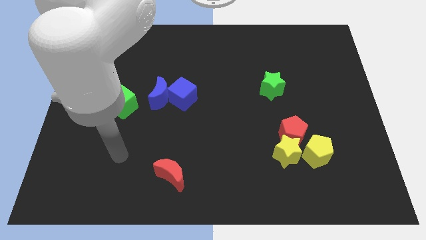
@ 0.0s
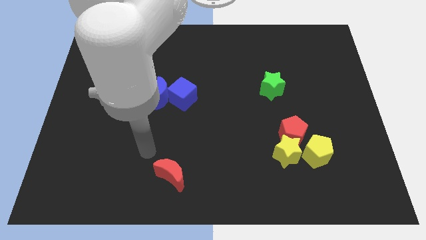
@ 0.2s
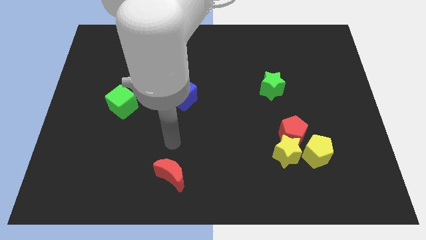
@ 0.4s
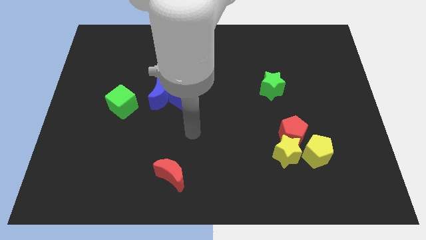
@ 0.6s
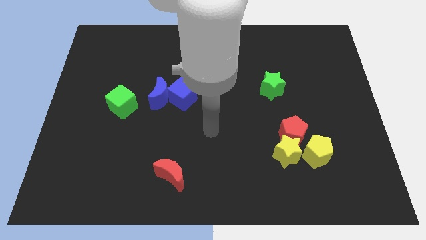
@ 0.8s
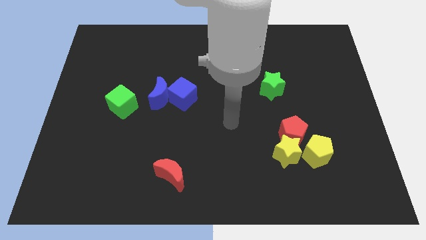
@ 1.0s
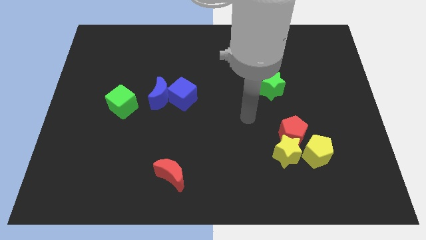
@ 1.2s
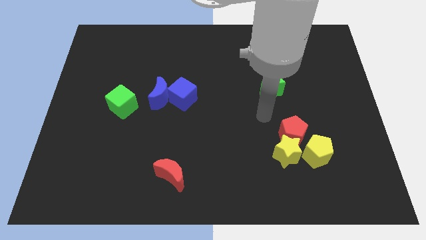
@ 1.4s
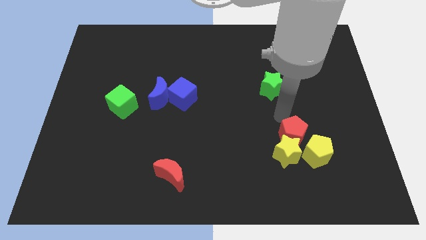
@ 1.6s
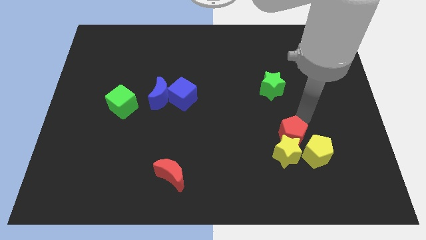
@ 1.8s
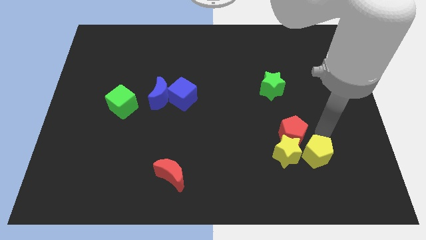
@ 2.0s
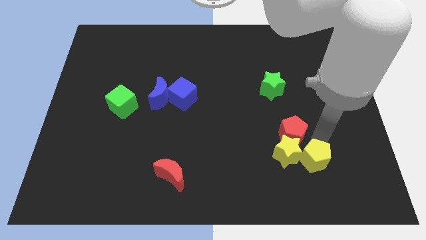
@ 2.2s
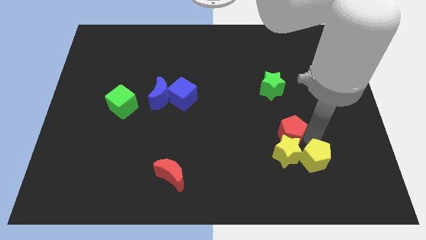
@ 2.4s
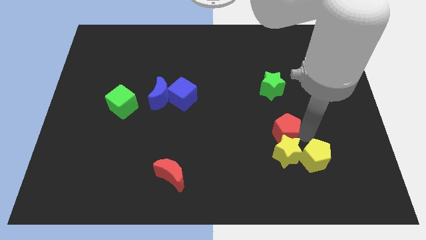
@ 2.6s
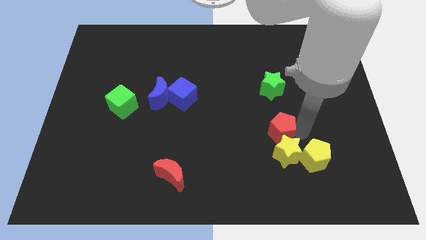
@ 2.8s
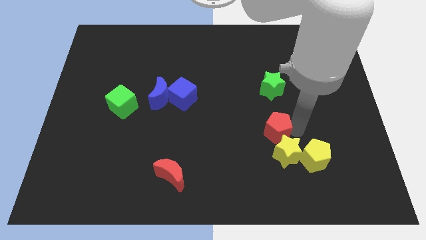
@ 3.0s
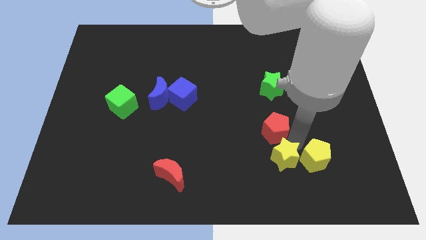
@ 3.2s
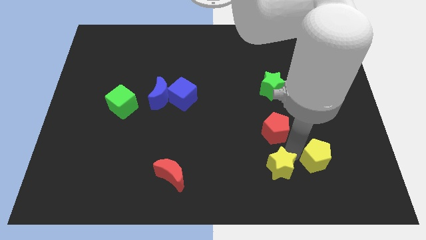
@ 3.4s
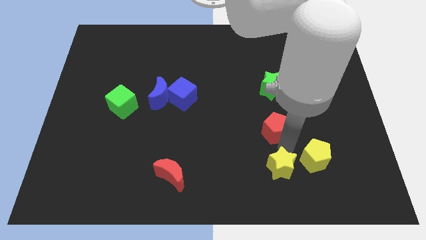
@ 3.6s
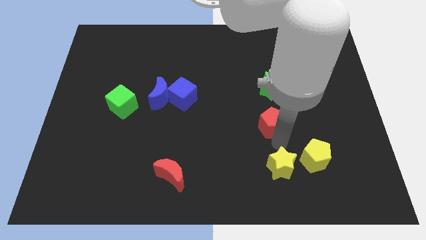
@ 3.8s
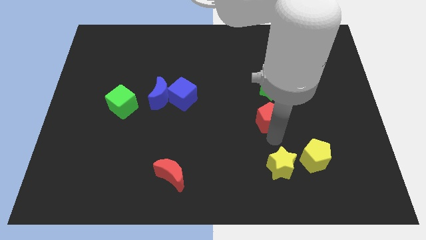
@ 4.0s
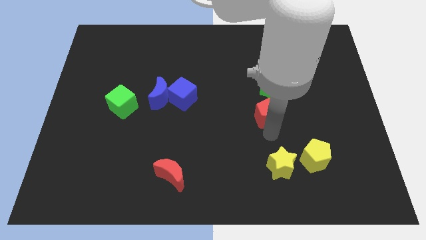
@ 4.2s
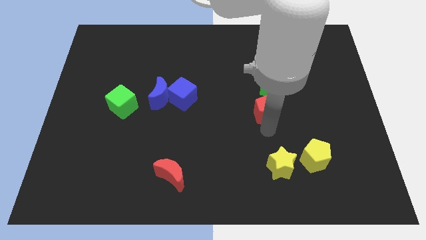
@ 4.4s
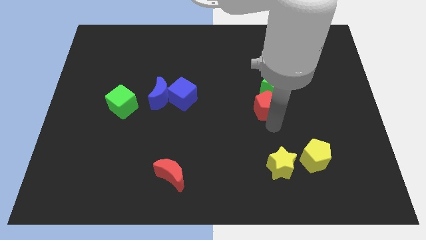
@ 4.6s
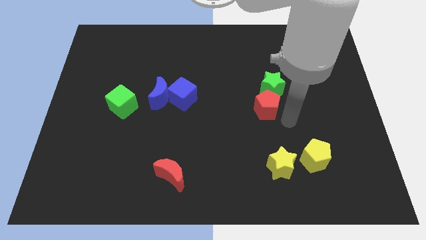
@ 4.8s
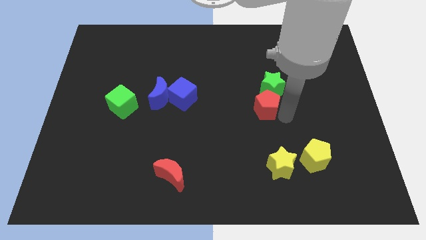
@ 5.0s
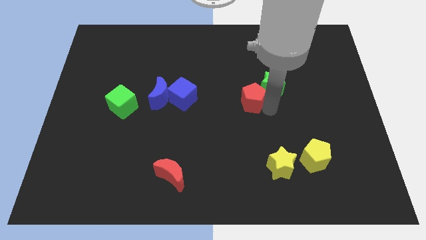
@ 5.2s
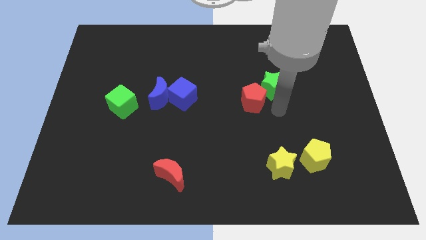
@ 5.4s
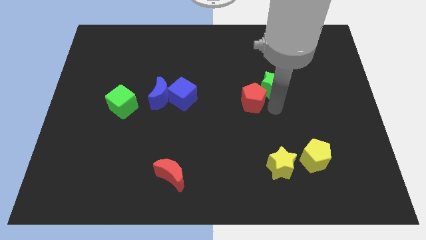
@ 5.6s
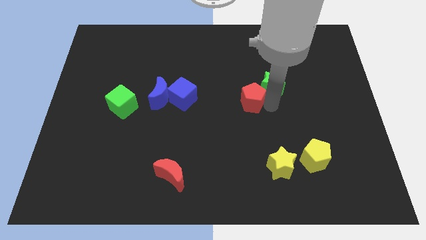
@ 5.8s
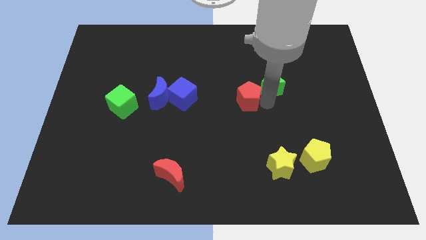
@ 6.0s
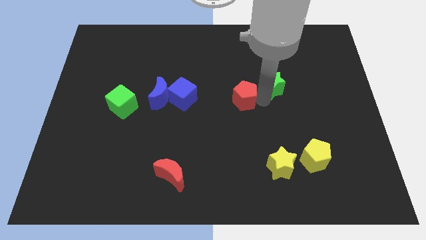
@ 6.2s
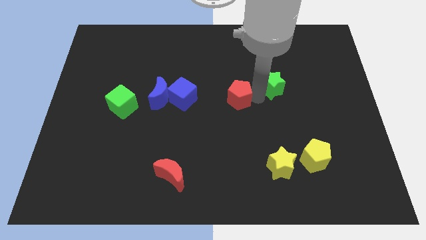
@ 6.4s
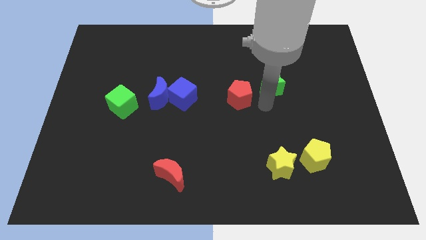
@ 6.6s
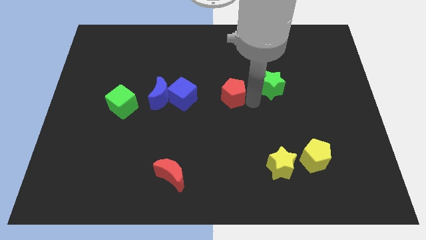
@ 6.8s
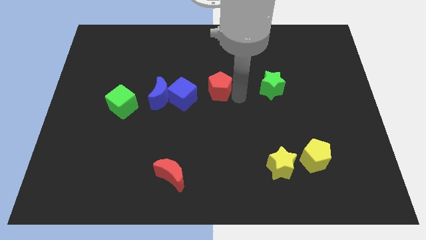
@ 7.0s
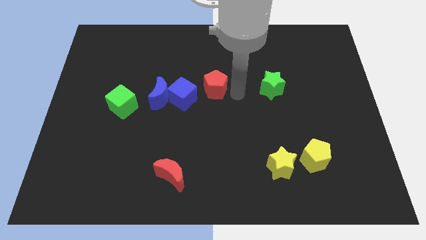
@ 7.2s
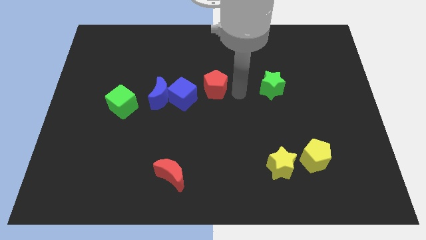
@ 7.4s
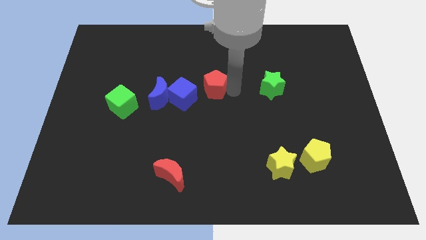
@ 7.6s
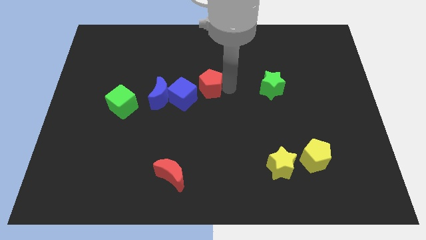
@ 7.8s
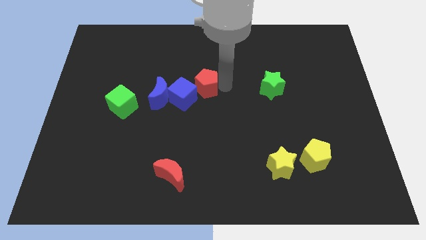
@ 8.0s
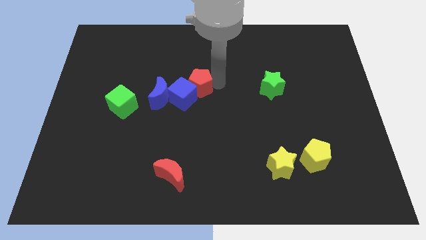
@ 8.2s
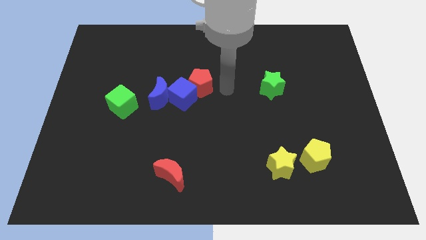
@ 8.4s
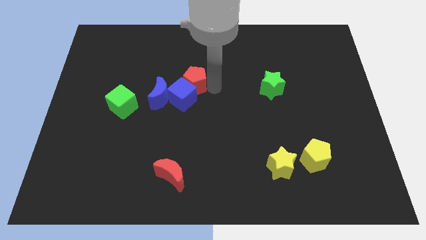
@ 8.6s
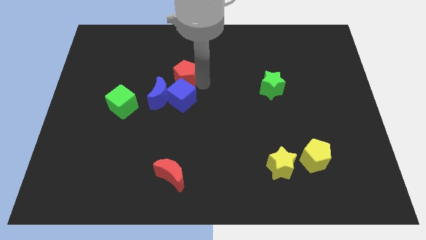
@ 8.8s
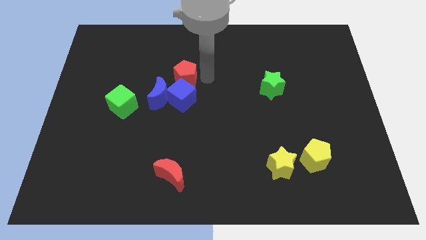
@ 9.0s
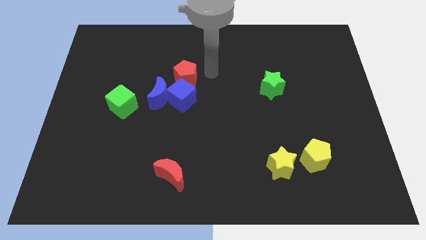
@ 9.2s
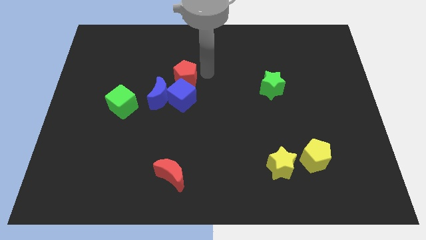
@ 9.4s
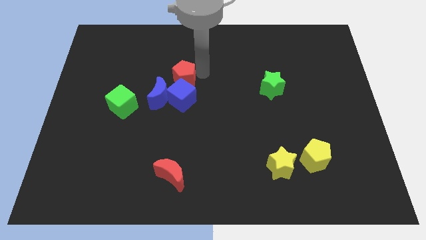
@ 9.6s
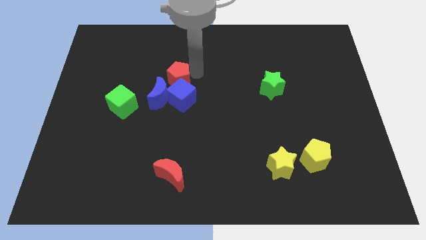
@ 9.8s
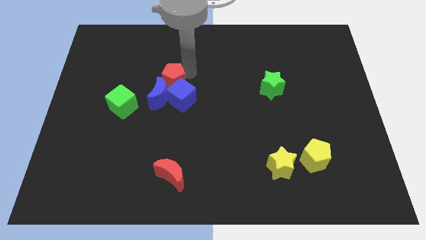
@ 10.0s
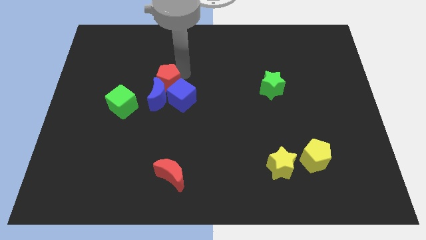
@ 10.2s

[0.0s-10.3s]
put the red pentagon to the top right of the green cube

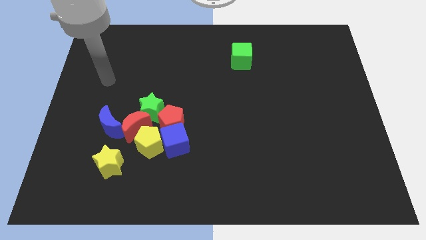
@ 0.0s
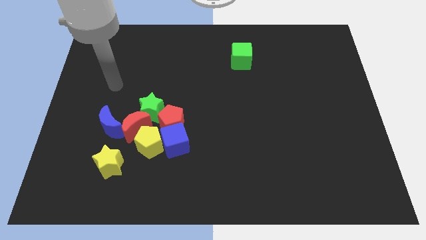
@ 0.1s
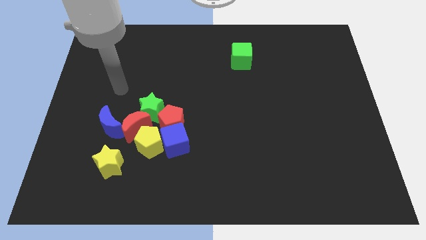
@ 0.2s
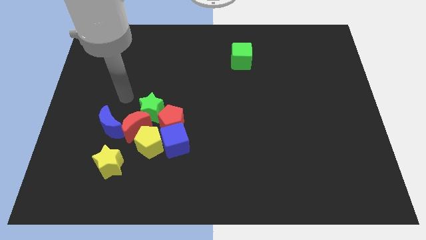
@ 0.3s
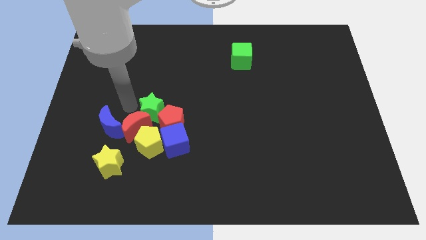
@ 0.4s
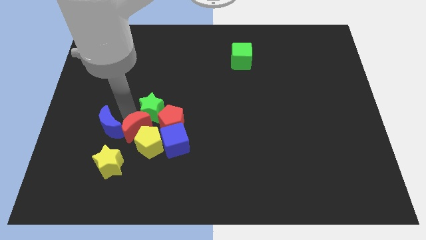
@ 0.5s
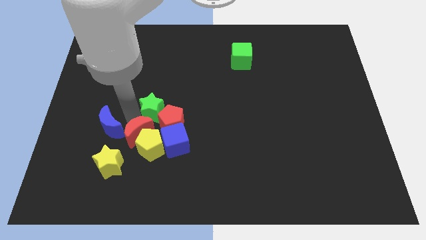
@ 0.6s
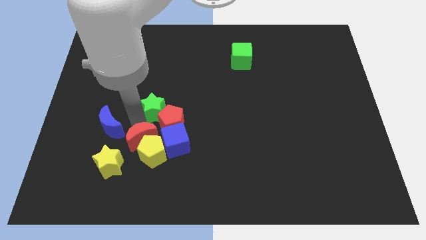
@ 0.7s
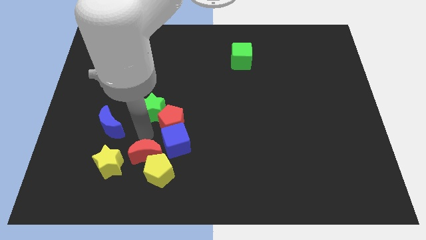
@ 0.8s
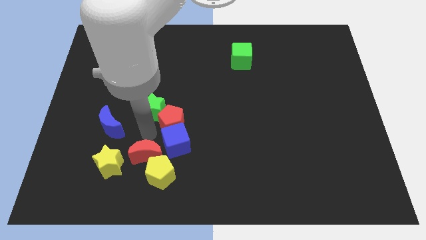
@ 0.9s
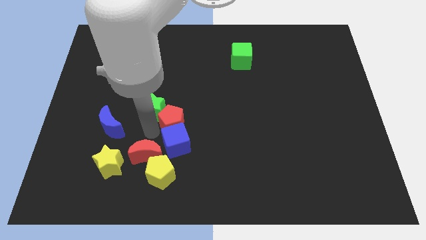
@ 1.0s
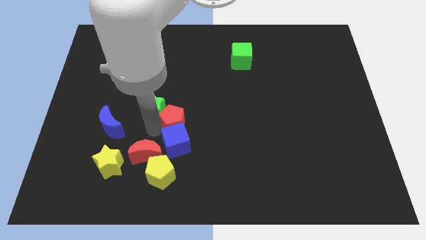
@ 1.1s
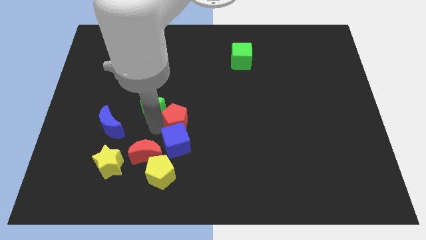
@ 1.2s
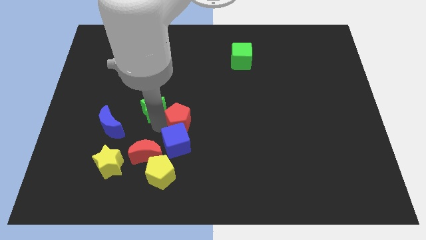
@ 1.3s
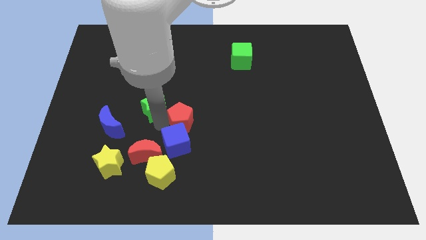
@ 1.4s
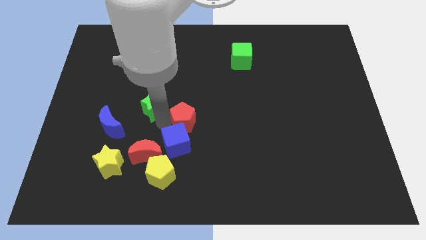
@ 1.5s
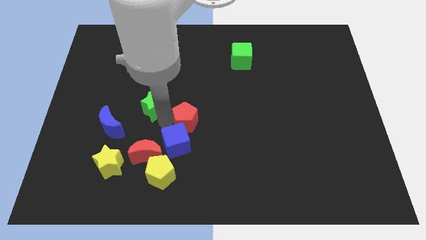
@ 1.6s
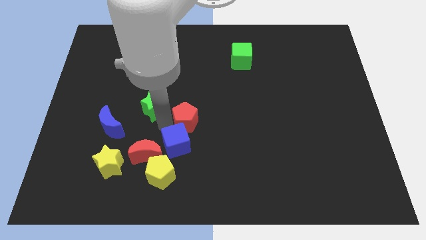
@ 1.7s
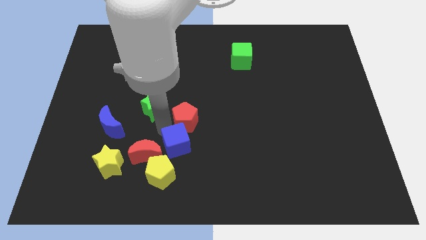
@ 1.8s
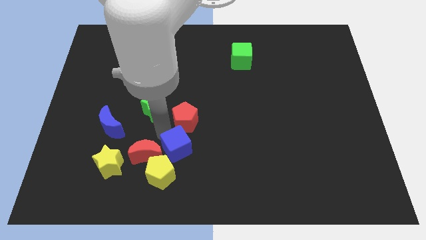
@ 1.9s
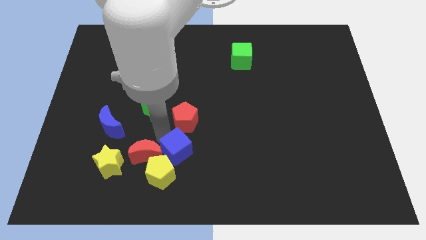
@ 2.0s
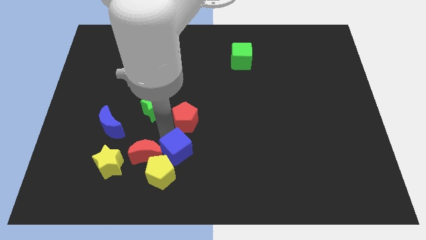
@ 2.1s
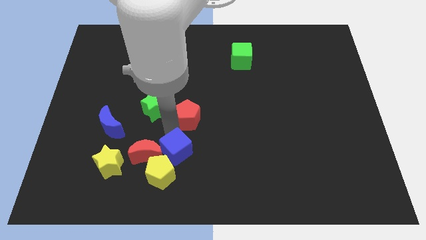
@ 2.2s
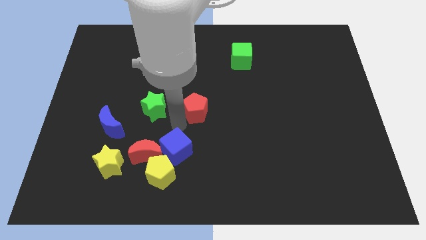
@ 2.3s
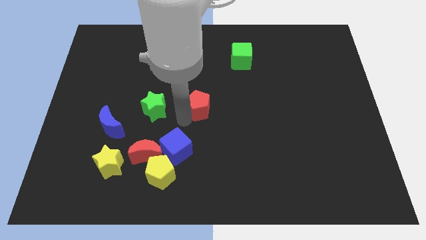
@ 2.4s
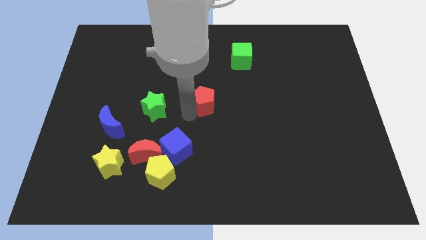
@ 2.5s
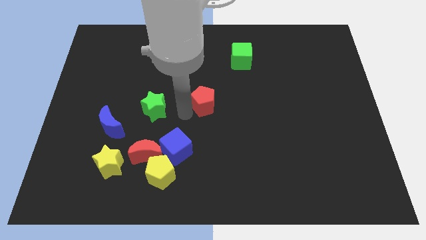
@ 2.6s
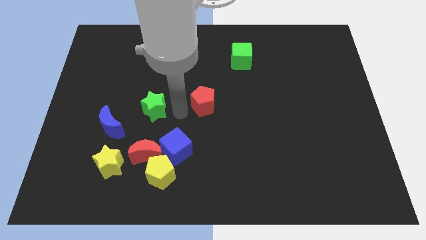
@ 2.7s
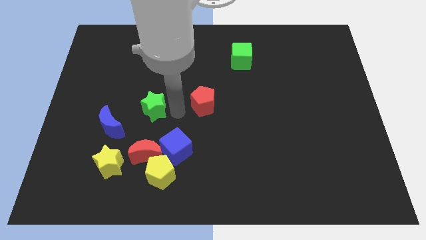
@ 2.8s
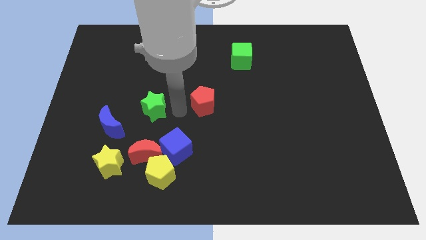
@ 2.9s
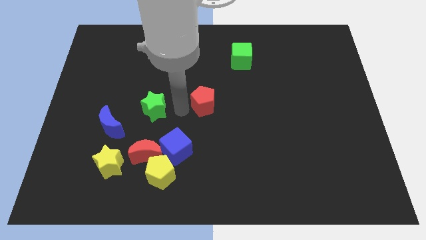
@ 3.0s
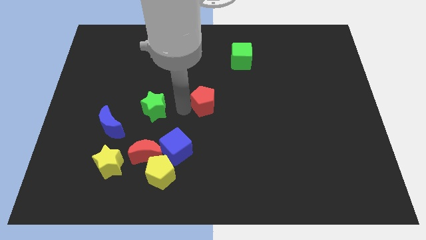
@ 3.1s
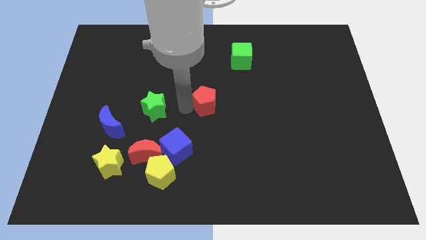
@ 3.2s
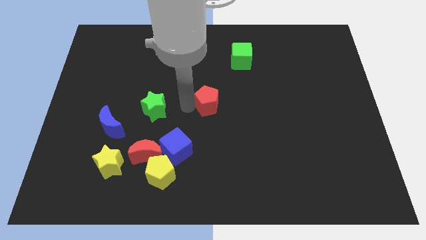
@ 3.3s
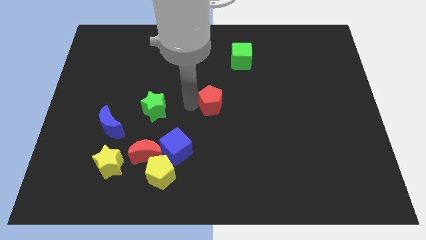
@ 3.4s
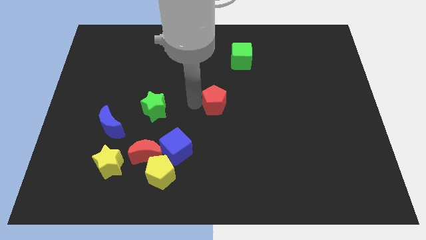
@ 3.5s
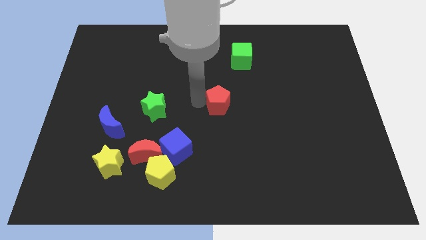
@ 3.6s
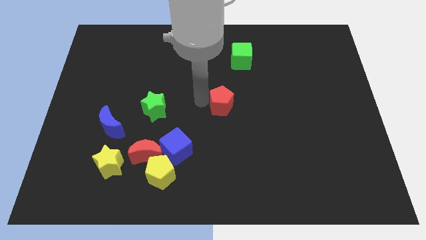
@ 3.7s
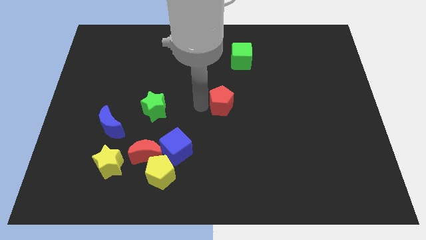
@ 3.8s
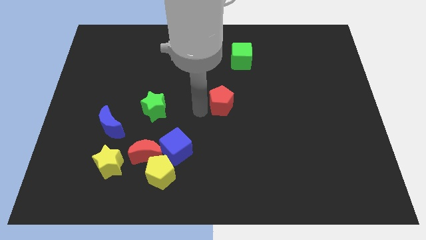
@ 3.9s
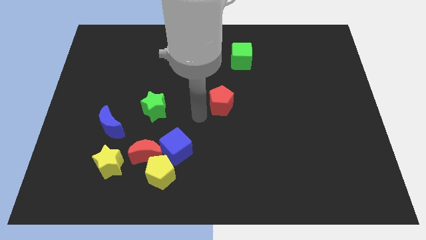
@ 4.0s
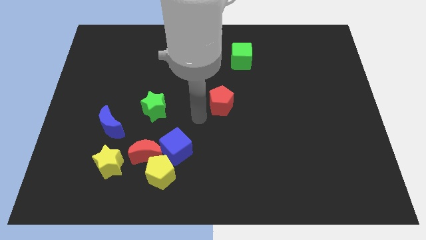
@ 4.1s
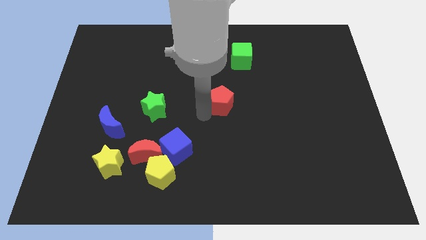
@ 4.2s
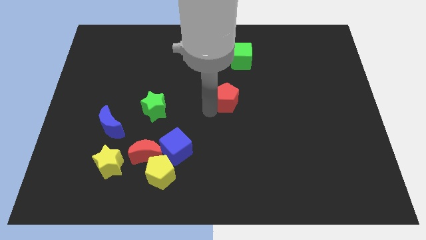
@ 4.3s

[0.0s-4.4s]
slide the red pentagon to the bottom of the green cube
